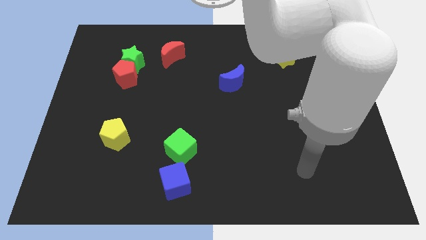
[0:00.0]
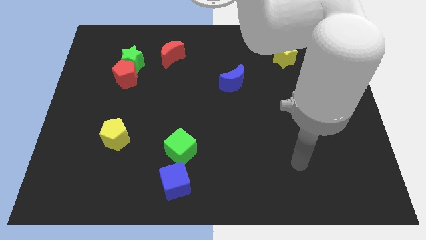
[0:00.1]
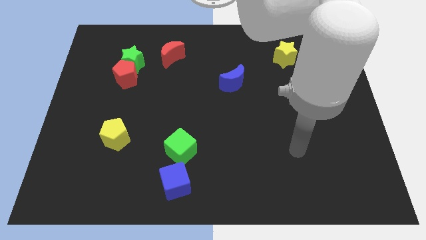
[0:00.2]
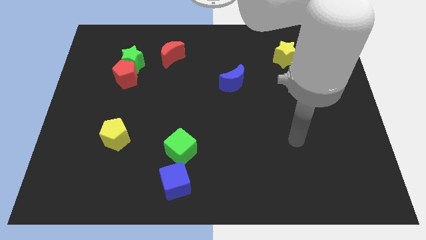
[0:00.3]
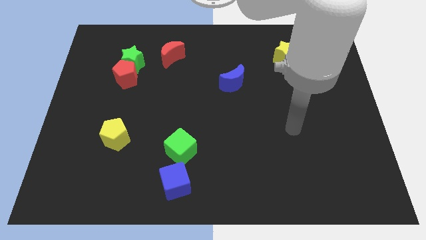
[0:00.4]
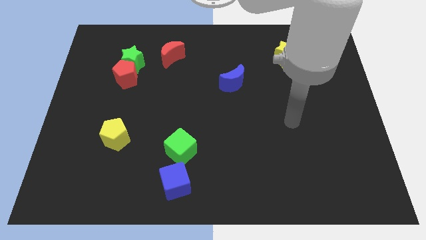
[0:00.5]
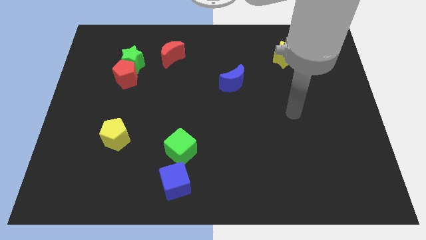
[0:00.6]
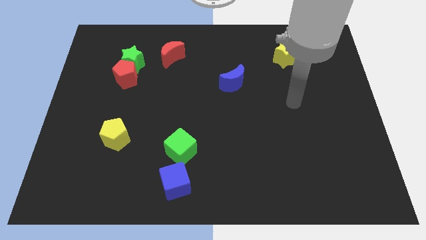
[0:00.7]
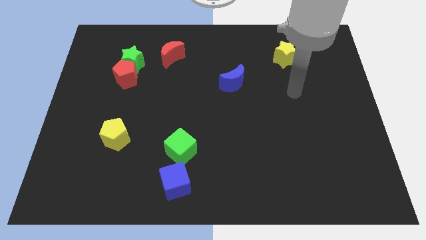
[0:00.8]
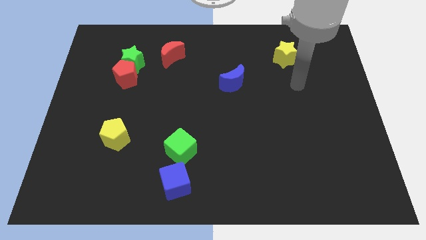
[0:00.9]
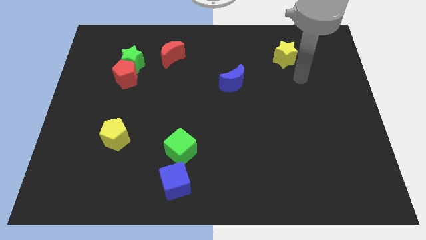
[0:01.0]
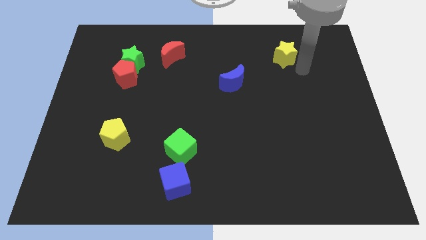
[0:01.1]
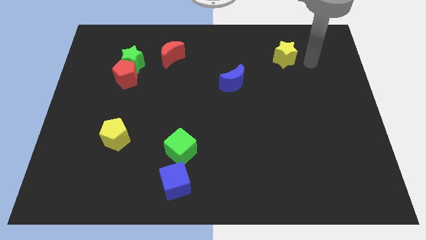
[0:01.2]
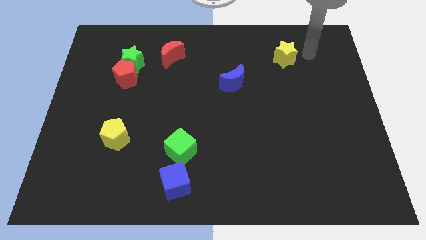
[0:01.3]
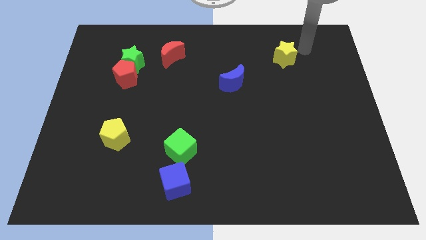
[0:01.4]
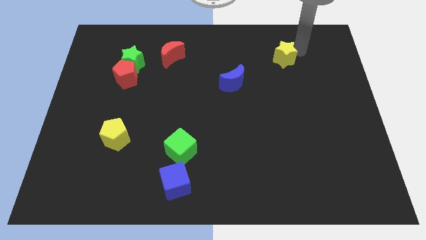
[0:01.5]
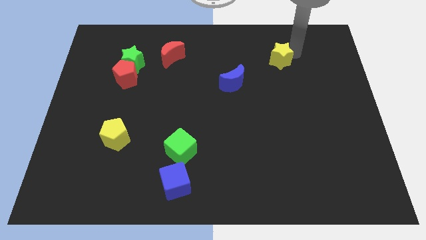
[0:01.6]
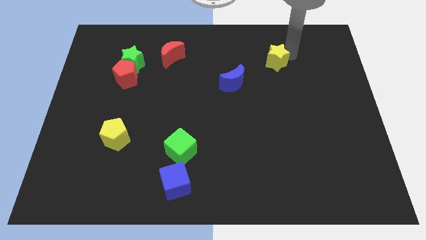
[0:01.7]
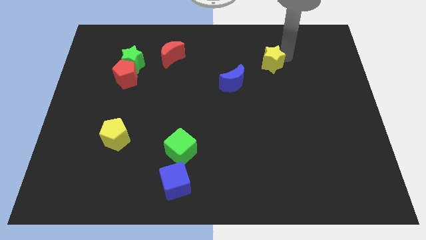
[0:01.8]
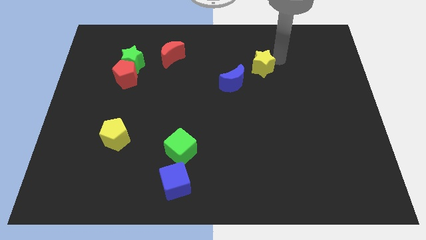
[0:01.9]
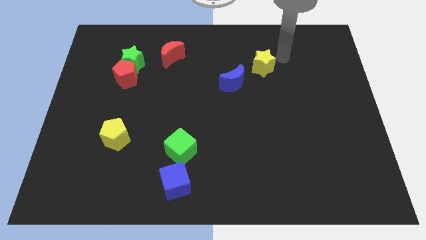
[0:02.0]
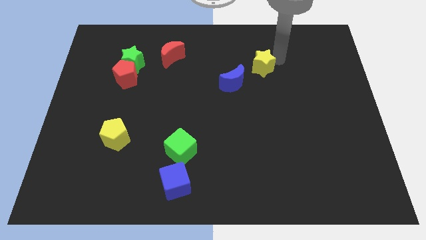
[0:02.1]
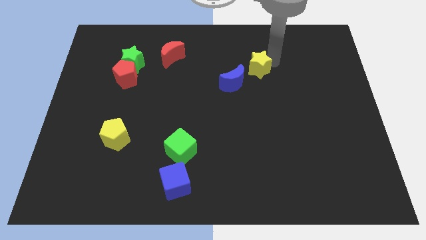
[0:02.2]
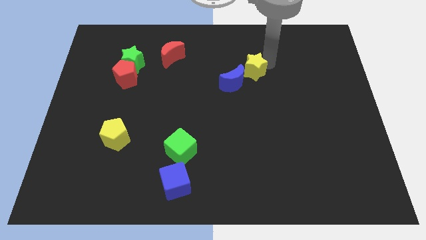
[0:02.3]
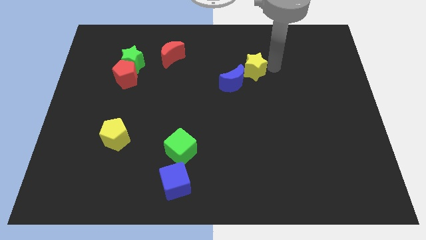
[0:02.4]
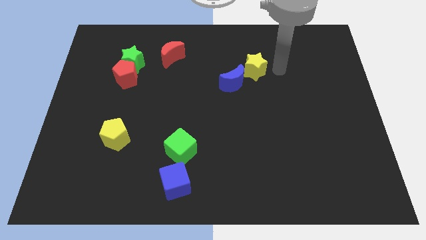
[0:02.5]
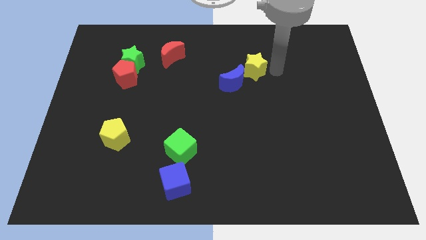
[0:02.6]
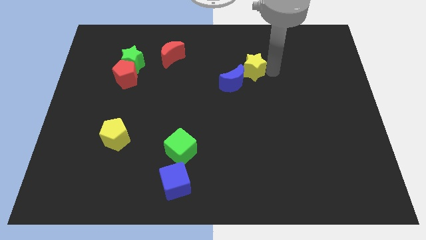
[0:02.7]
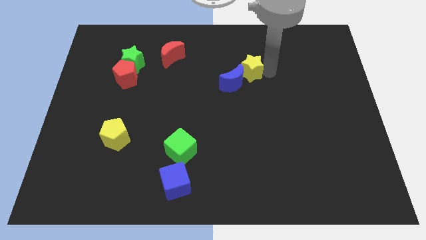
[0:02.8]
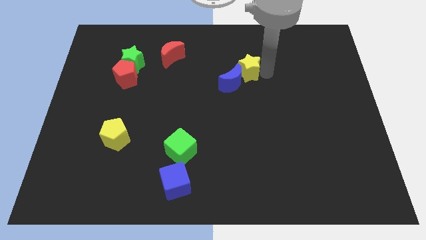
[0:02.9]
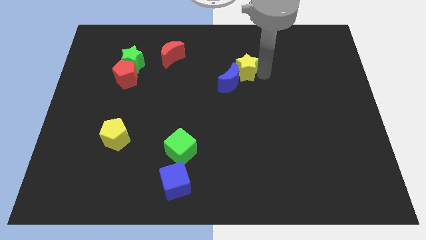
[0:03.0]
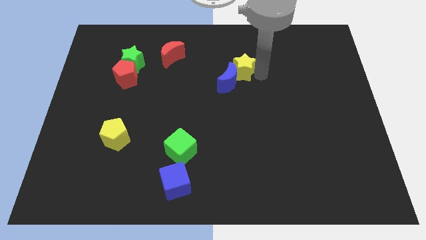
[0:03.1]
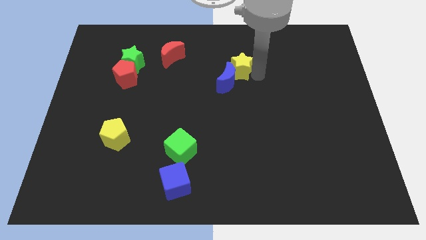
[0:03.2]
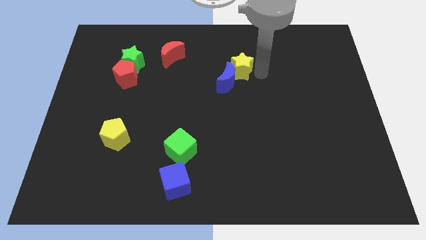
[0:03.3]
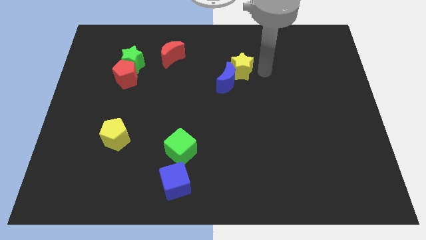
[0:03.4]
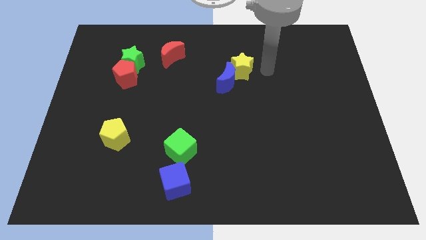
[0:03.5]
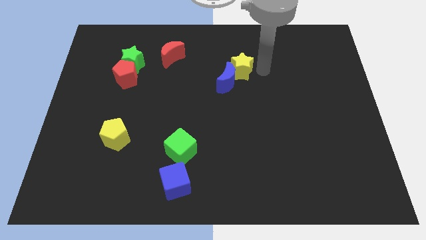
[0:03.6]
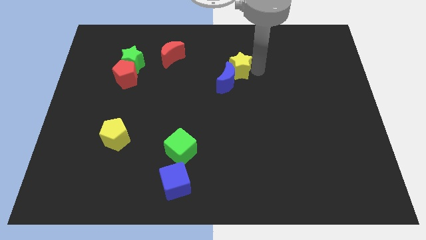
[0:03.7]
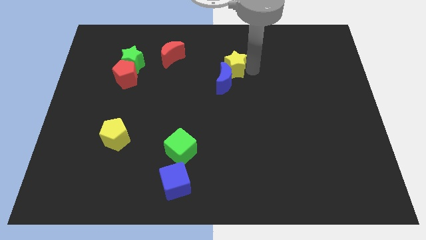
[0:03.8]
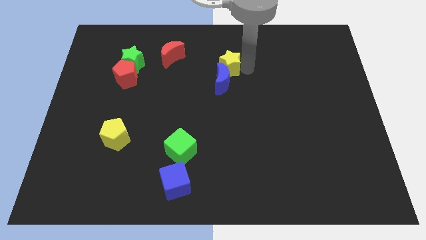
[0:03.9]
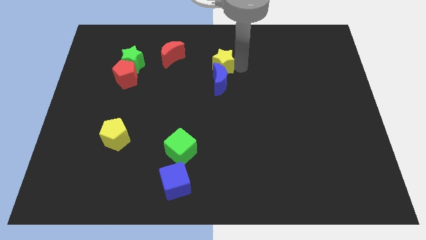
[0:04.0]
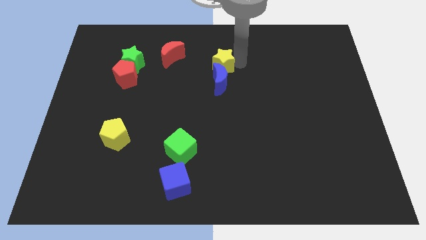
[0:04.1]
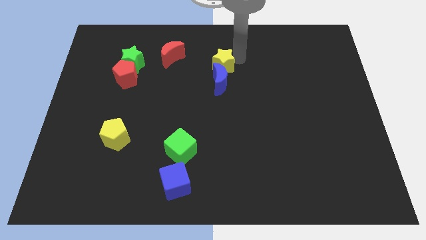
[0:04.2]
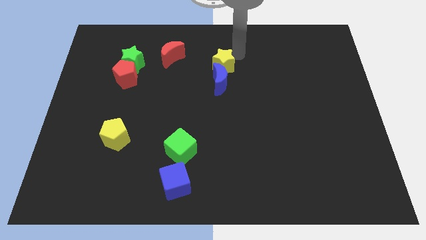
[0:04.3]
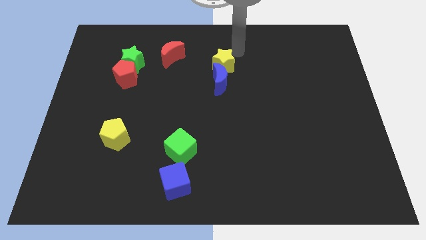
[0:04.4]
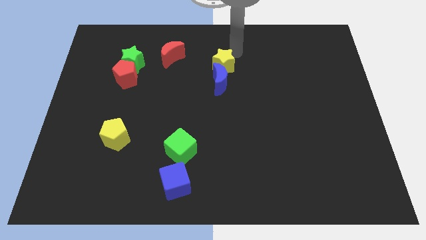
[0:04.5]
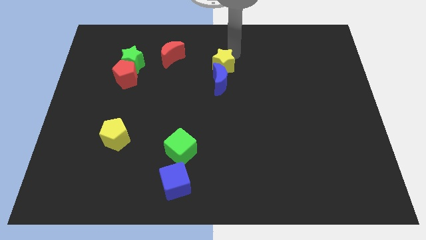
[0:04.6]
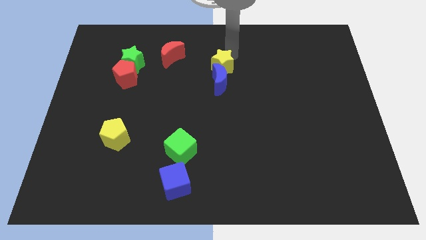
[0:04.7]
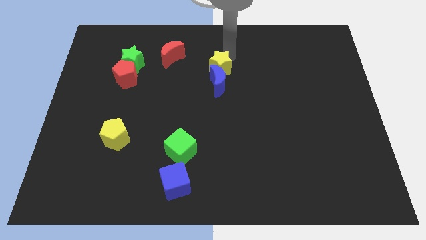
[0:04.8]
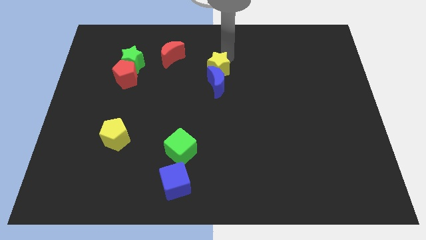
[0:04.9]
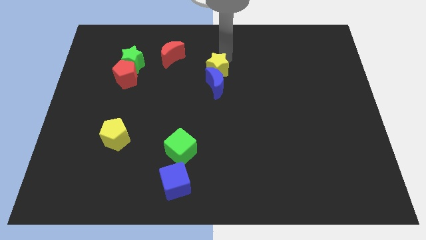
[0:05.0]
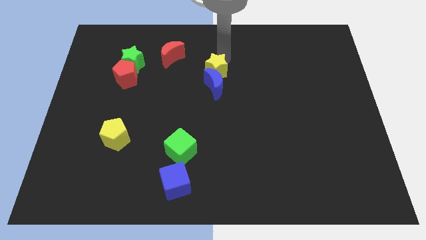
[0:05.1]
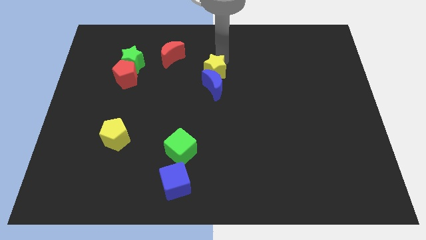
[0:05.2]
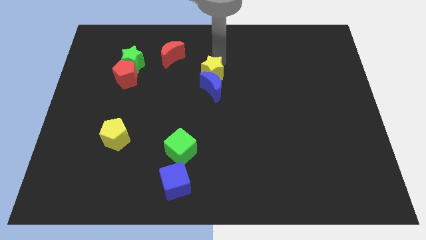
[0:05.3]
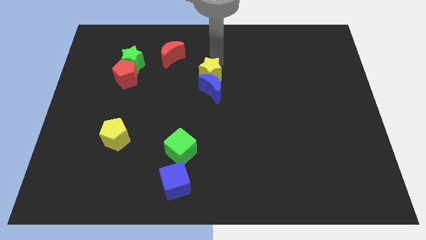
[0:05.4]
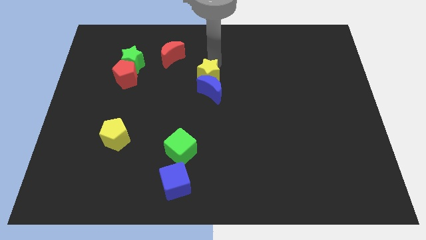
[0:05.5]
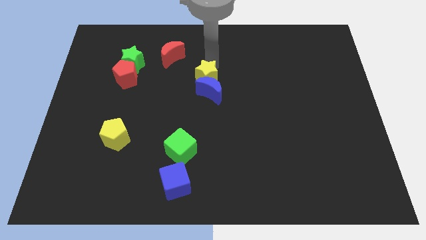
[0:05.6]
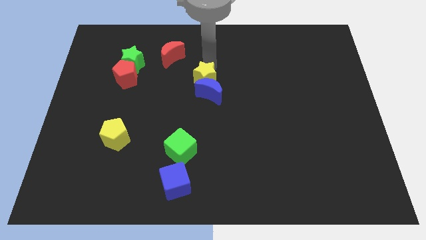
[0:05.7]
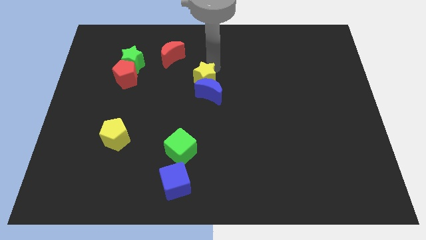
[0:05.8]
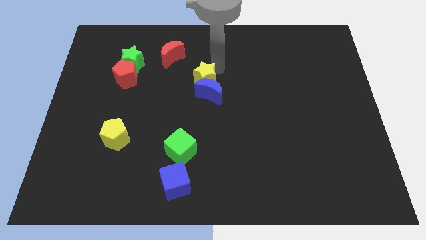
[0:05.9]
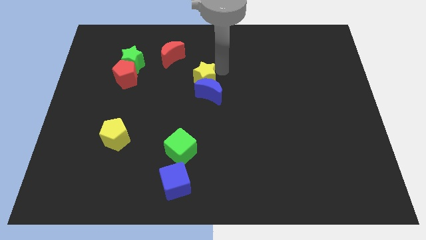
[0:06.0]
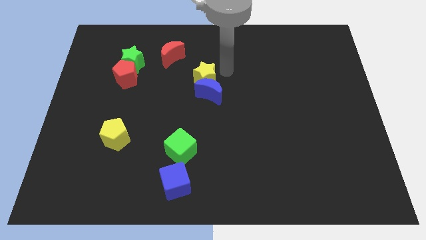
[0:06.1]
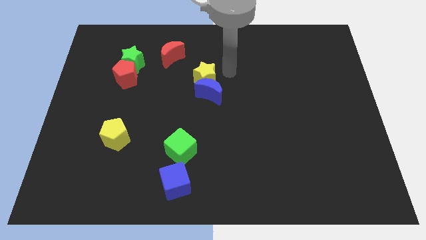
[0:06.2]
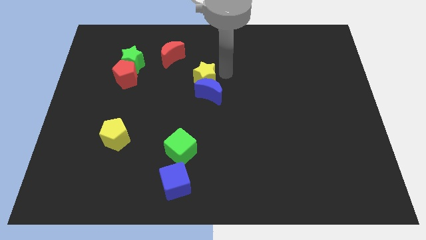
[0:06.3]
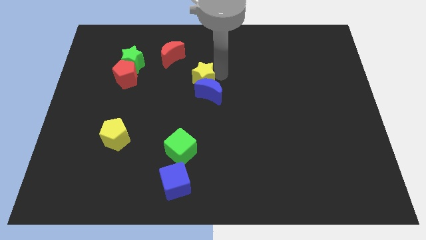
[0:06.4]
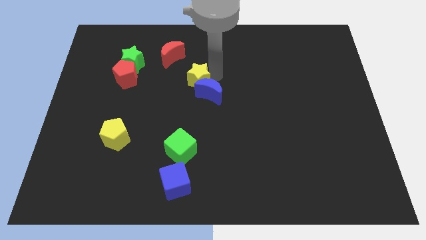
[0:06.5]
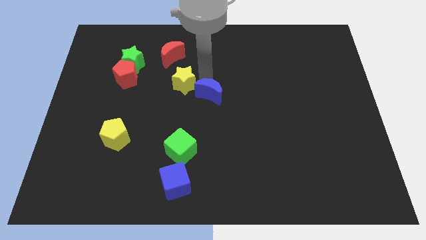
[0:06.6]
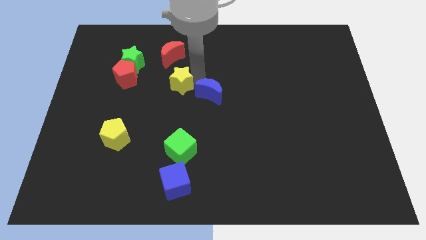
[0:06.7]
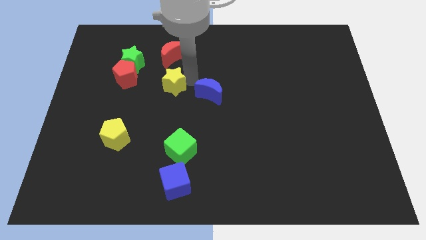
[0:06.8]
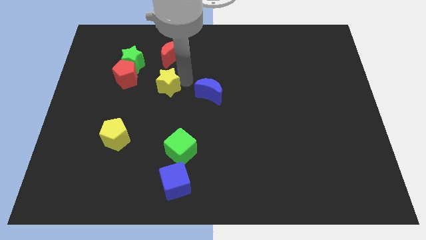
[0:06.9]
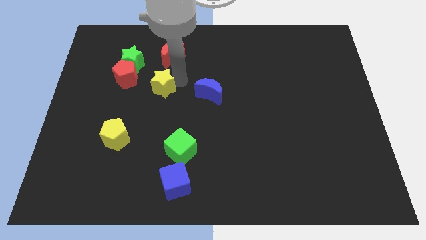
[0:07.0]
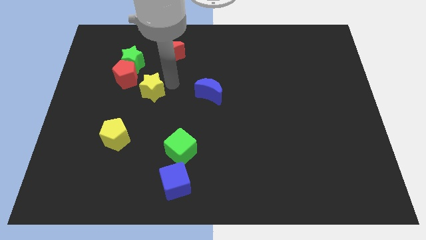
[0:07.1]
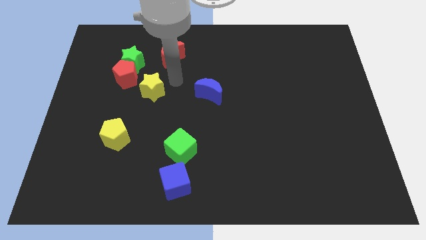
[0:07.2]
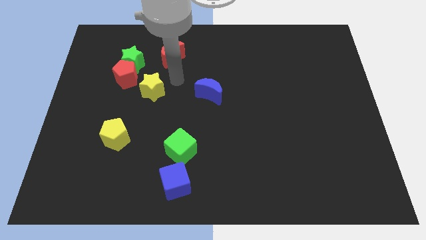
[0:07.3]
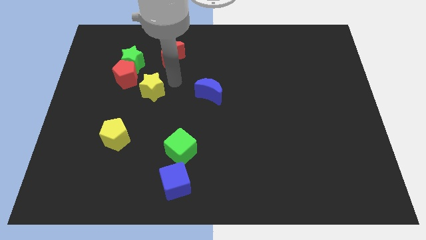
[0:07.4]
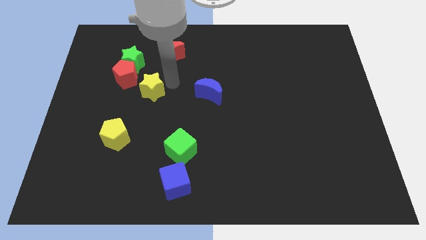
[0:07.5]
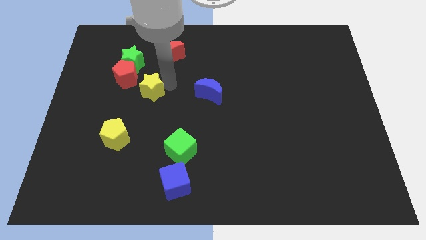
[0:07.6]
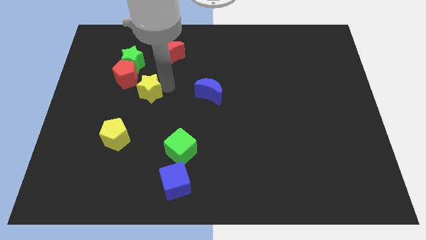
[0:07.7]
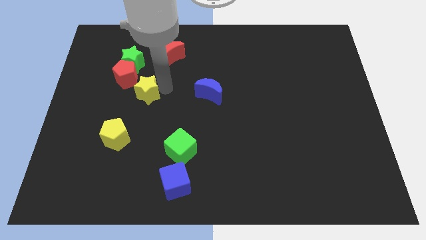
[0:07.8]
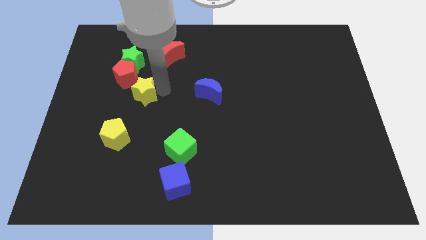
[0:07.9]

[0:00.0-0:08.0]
slide the yellow star to the top of the yellow pentagon

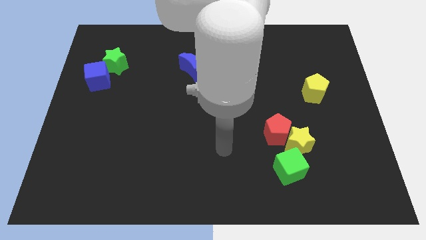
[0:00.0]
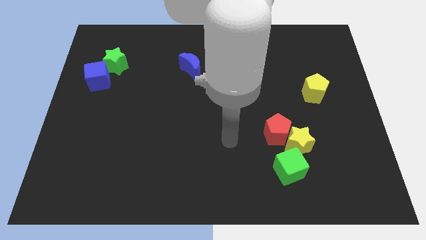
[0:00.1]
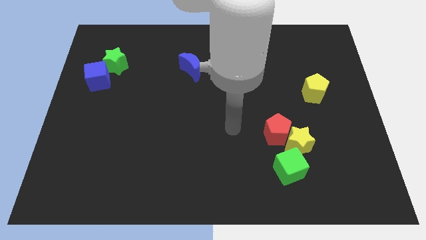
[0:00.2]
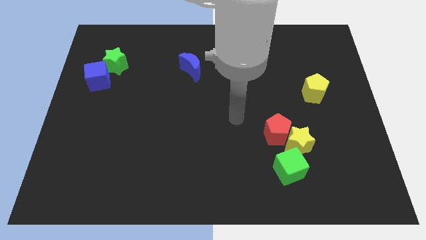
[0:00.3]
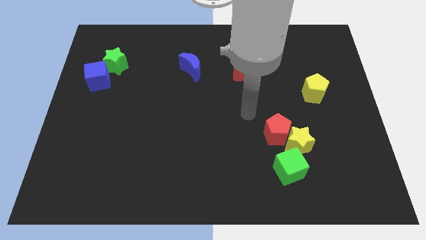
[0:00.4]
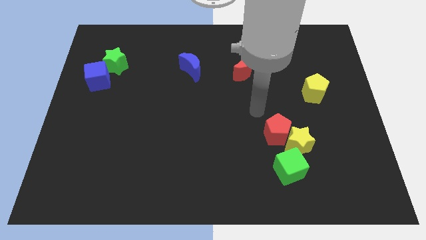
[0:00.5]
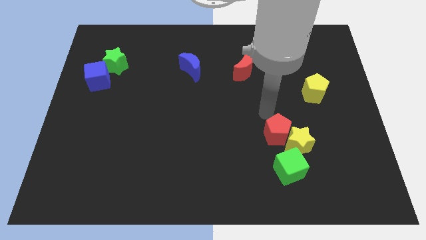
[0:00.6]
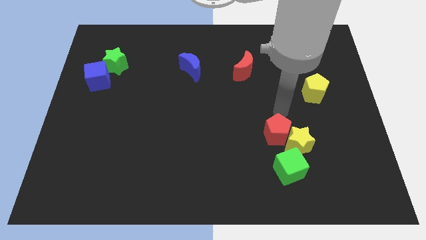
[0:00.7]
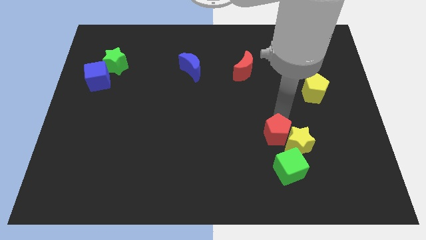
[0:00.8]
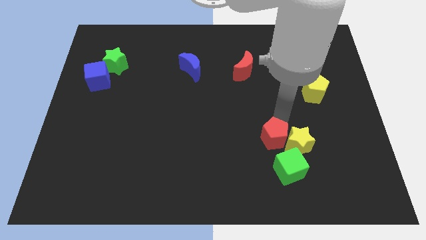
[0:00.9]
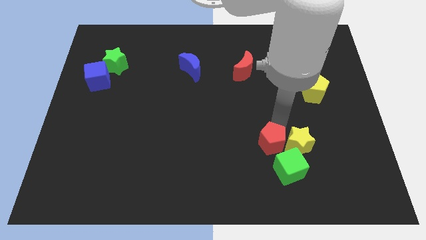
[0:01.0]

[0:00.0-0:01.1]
move the red pentagon to the bottom left side of the yellow star
